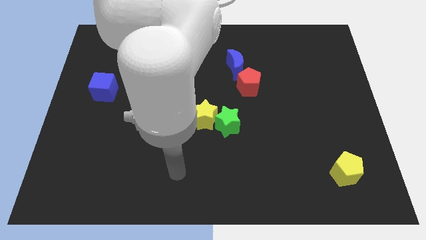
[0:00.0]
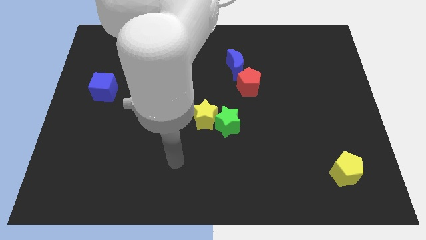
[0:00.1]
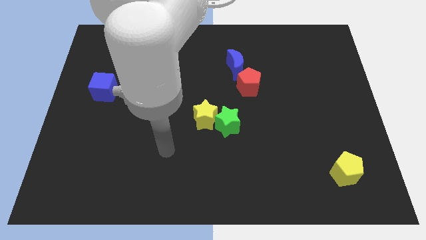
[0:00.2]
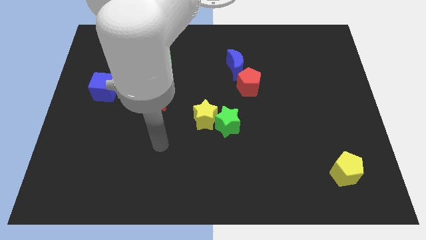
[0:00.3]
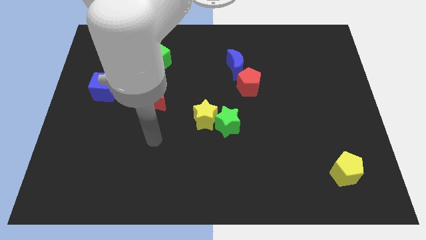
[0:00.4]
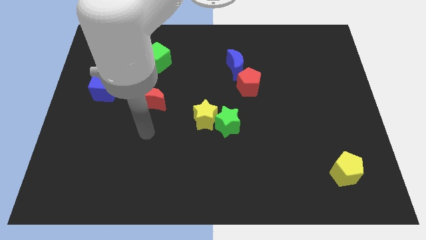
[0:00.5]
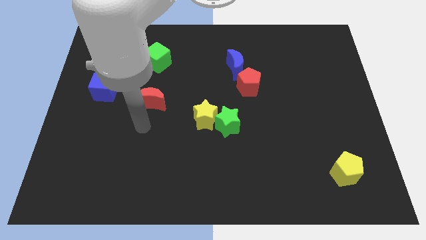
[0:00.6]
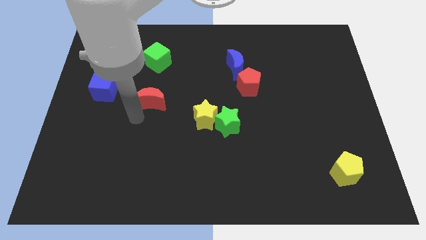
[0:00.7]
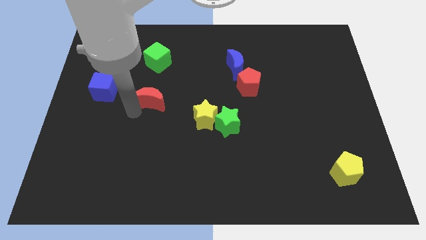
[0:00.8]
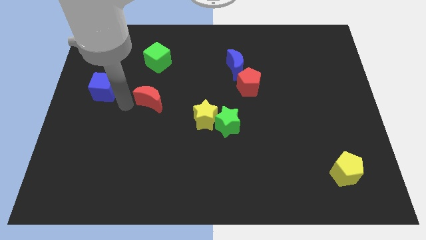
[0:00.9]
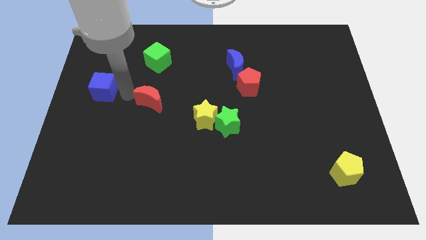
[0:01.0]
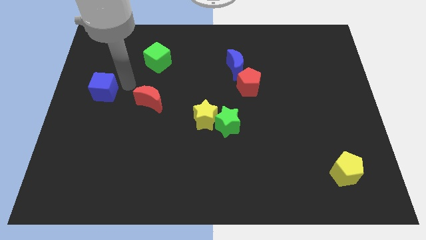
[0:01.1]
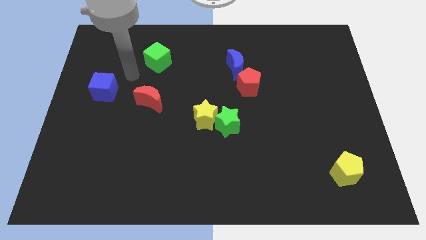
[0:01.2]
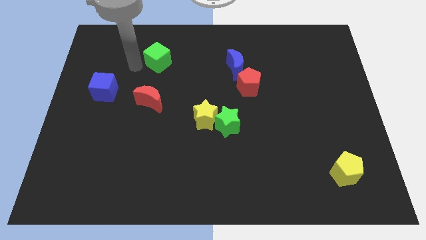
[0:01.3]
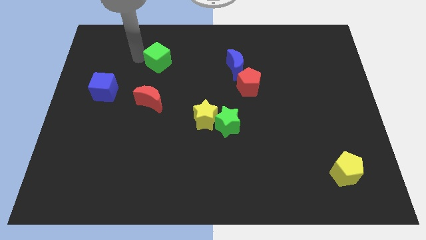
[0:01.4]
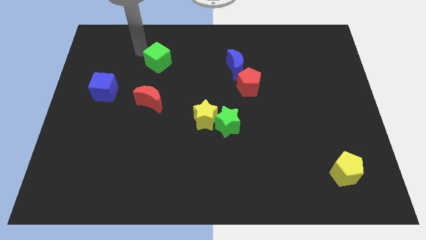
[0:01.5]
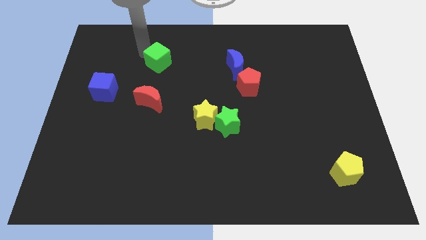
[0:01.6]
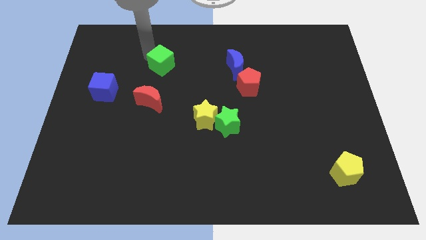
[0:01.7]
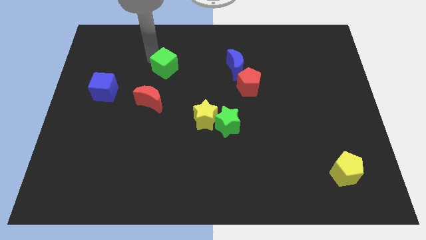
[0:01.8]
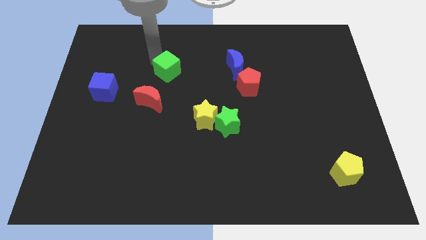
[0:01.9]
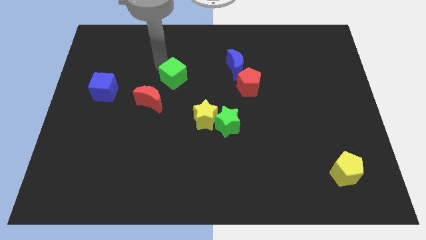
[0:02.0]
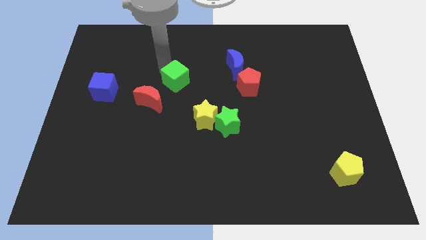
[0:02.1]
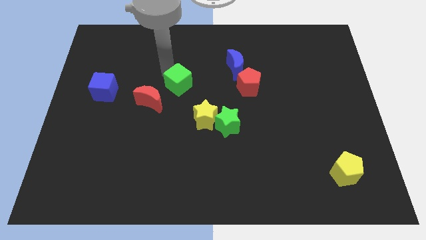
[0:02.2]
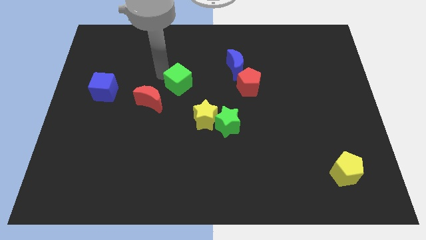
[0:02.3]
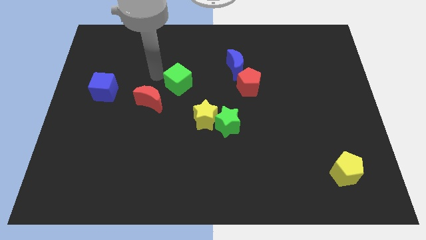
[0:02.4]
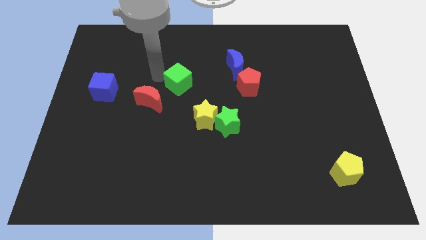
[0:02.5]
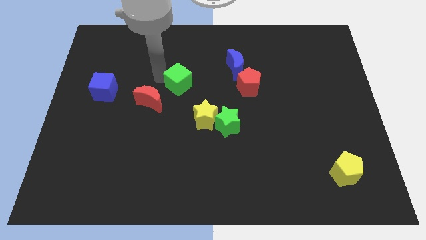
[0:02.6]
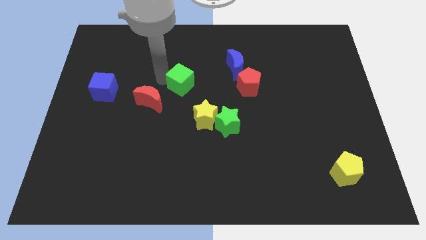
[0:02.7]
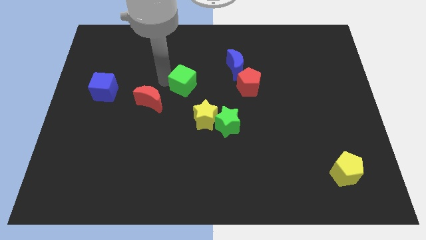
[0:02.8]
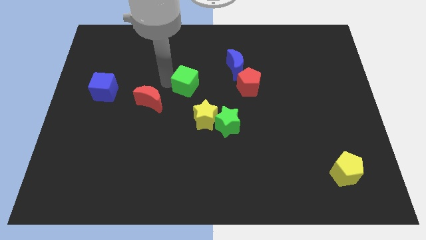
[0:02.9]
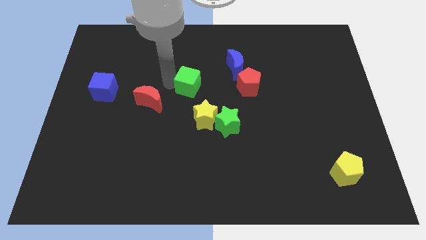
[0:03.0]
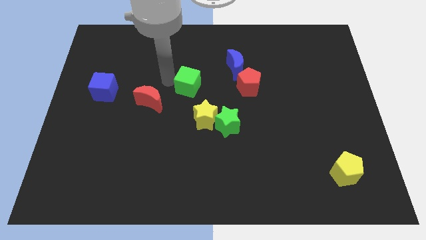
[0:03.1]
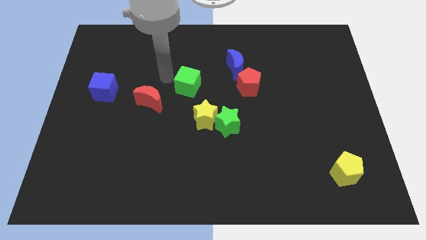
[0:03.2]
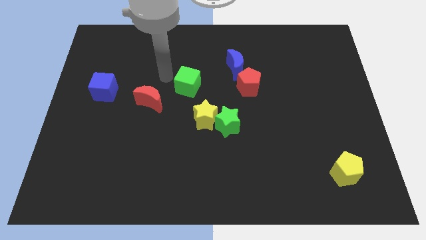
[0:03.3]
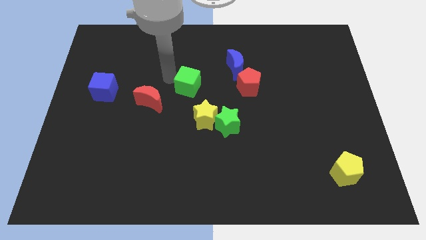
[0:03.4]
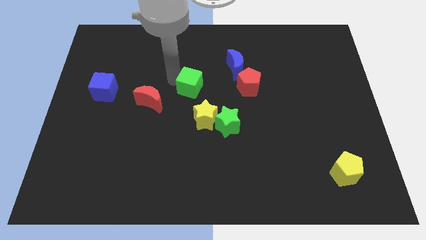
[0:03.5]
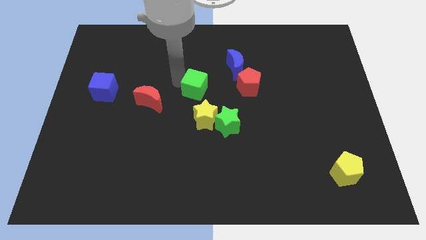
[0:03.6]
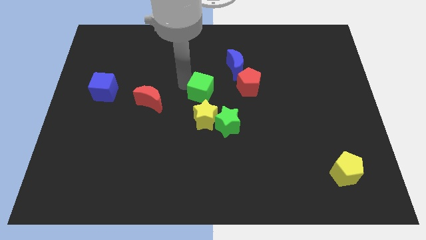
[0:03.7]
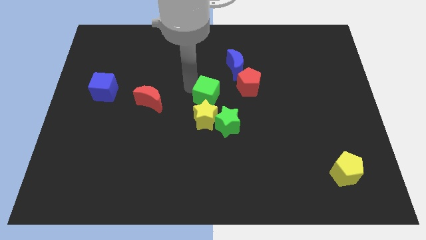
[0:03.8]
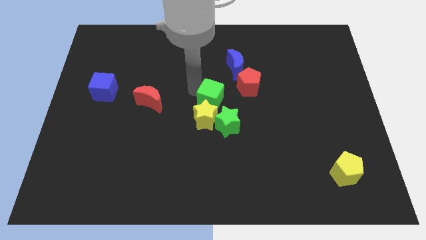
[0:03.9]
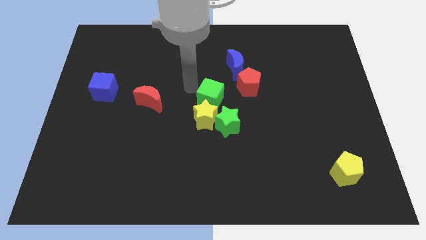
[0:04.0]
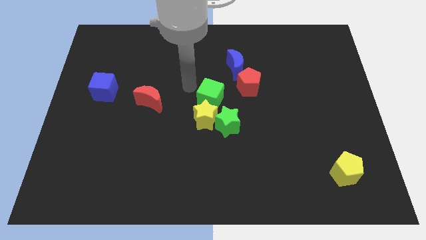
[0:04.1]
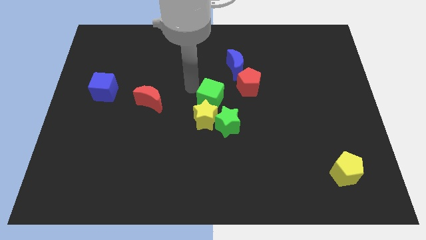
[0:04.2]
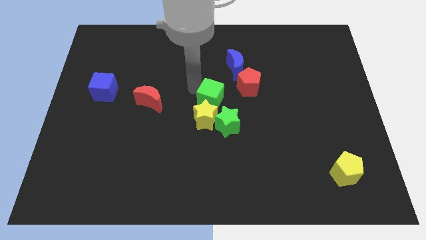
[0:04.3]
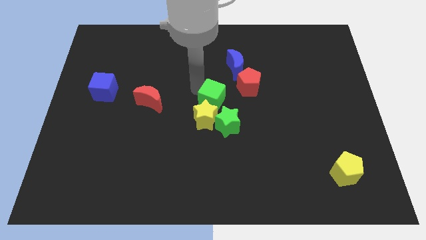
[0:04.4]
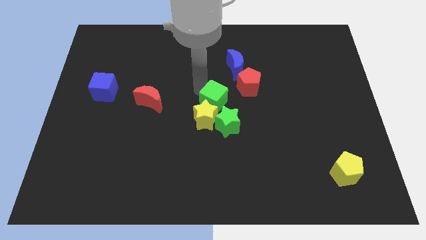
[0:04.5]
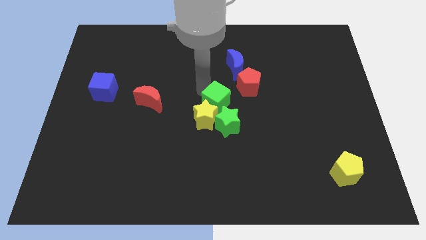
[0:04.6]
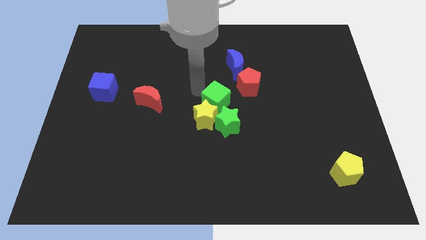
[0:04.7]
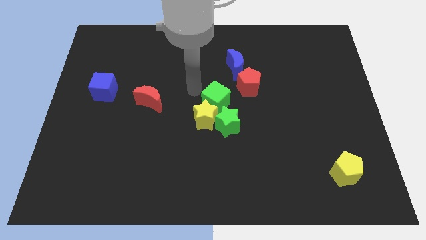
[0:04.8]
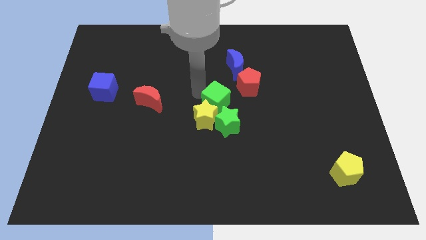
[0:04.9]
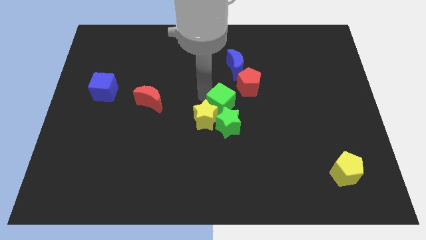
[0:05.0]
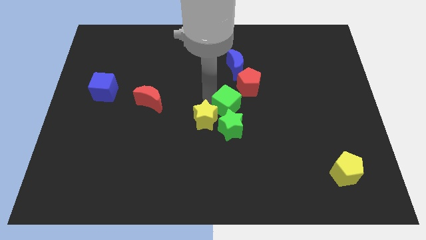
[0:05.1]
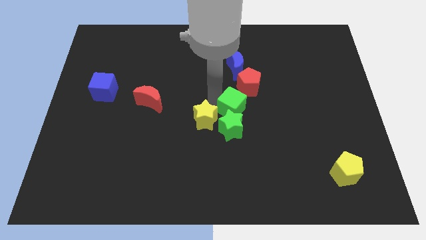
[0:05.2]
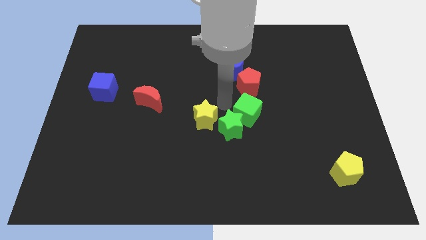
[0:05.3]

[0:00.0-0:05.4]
move the green cube to the right of the green star

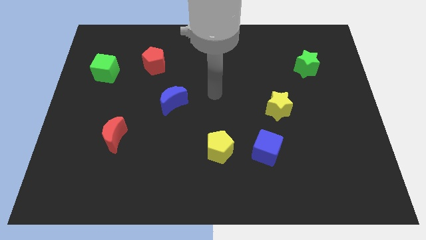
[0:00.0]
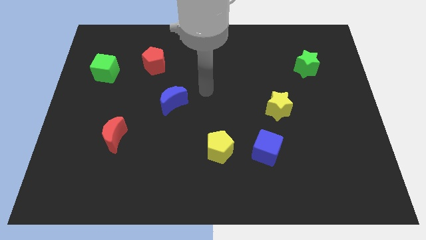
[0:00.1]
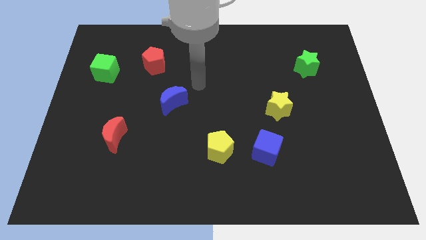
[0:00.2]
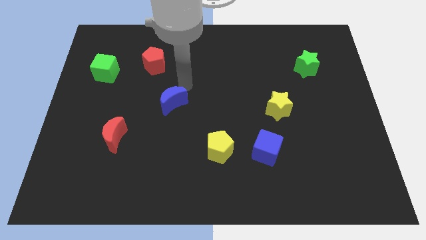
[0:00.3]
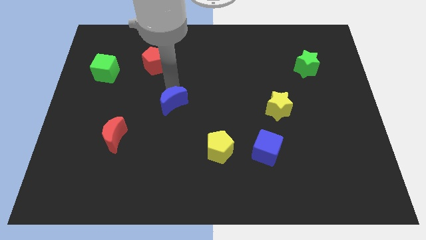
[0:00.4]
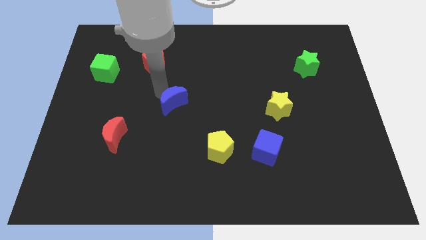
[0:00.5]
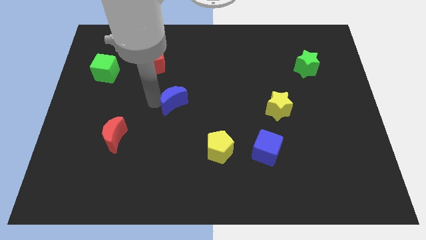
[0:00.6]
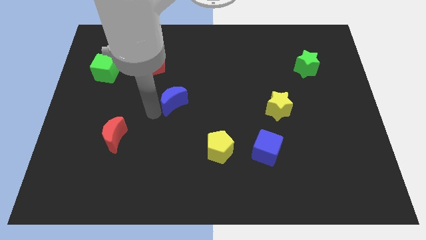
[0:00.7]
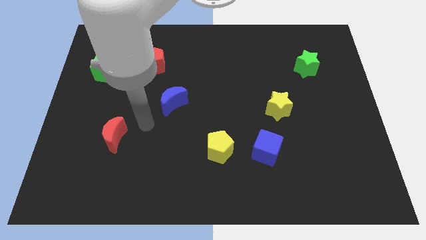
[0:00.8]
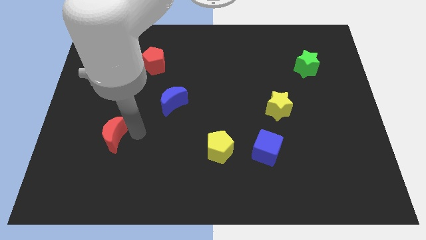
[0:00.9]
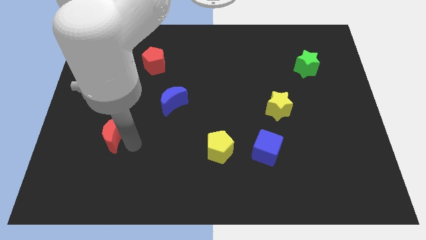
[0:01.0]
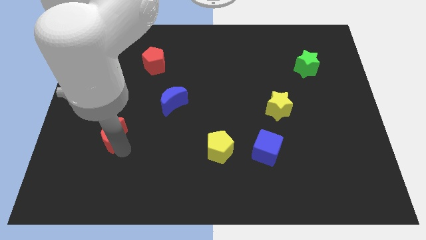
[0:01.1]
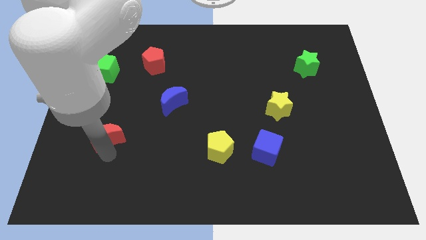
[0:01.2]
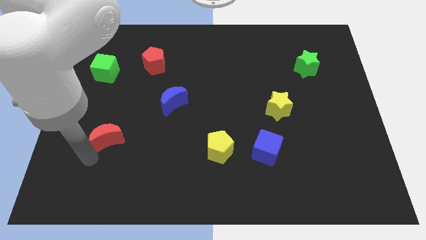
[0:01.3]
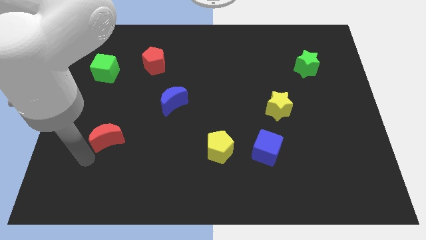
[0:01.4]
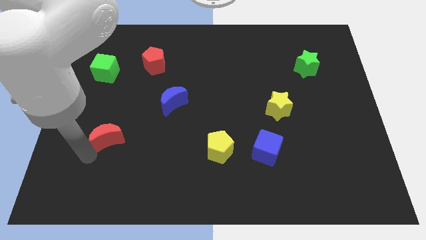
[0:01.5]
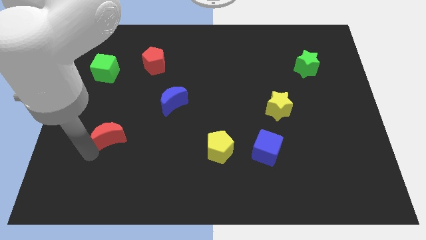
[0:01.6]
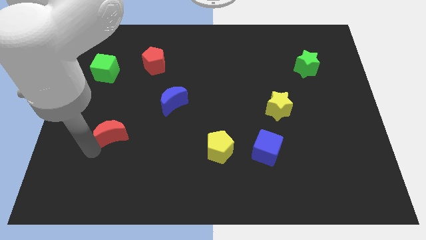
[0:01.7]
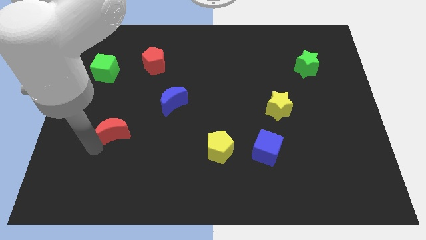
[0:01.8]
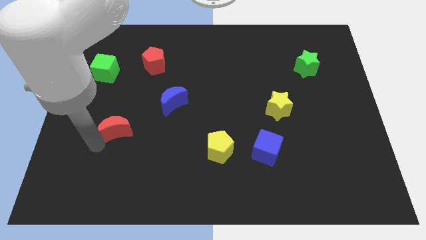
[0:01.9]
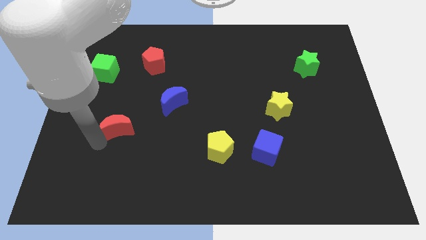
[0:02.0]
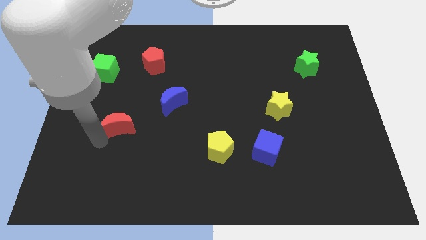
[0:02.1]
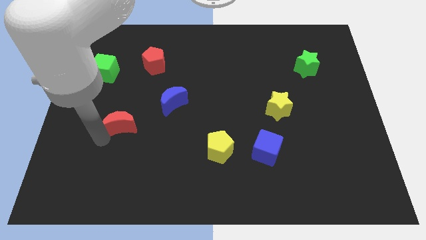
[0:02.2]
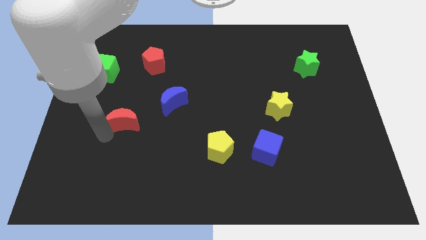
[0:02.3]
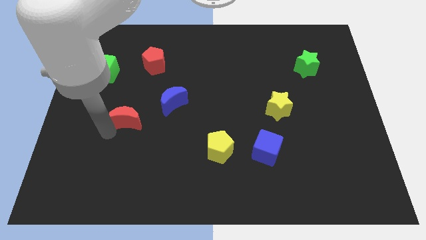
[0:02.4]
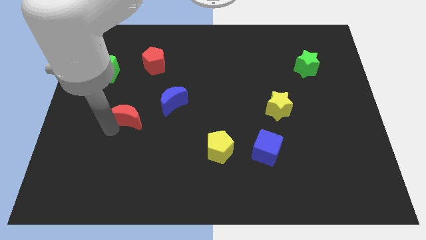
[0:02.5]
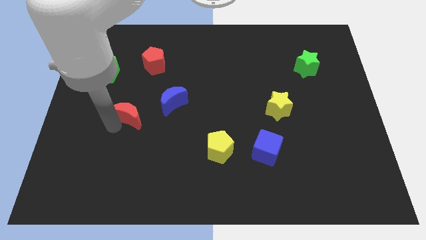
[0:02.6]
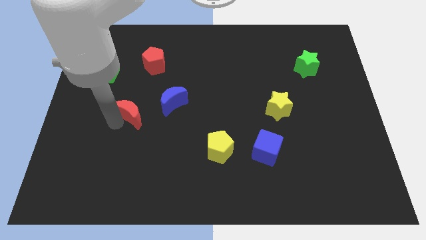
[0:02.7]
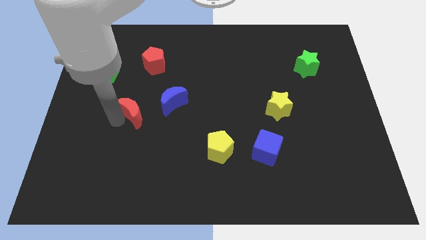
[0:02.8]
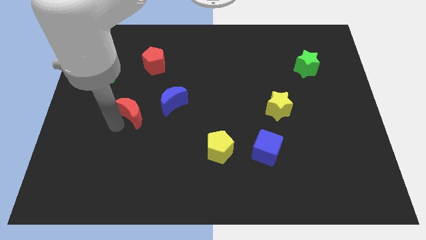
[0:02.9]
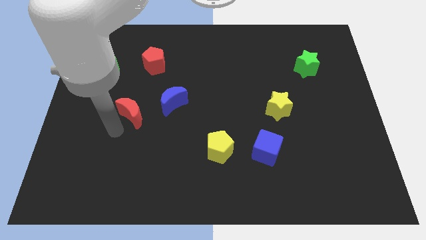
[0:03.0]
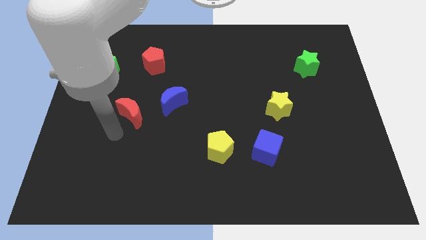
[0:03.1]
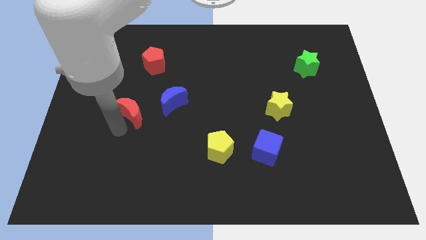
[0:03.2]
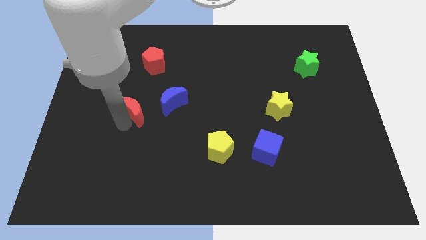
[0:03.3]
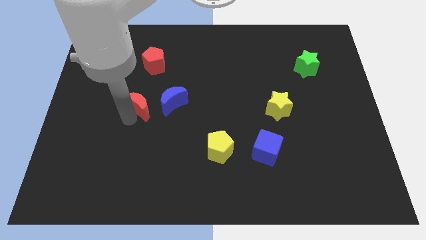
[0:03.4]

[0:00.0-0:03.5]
push the red moon below the red pentagon
